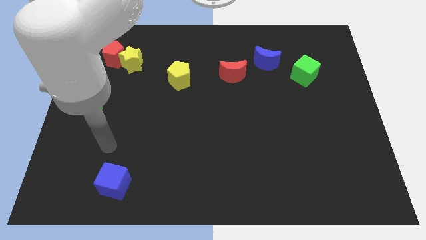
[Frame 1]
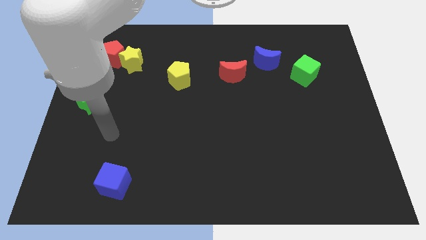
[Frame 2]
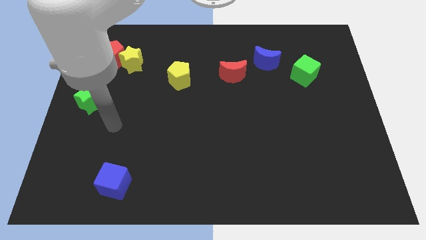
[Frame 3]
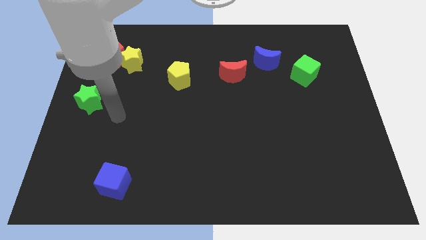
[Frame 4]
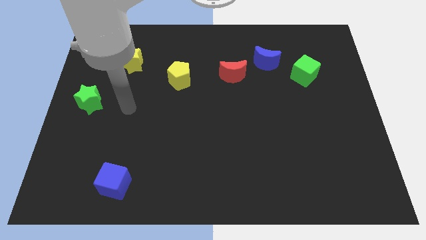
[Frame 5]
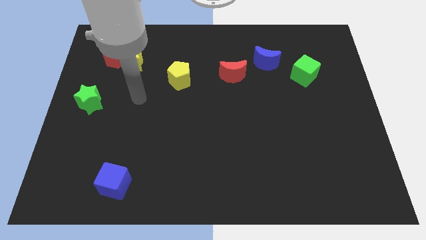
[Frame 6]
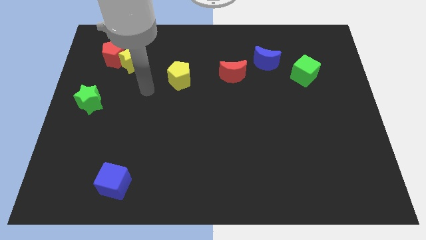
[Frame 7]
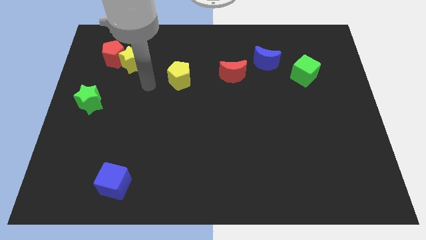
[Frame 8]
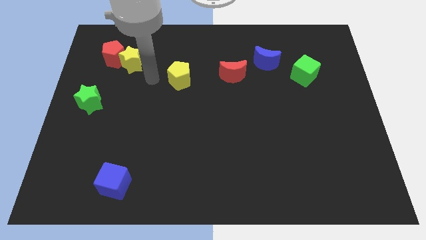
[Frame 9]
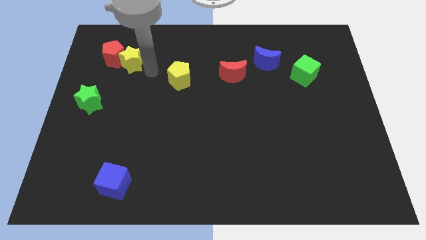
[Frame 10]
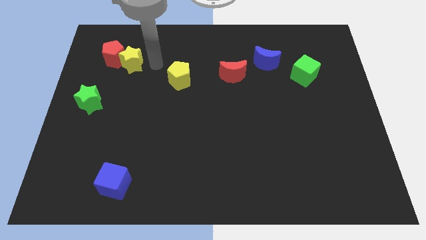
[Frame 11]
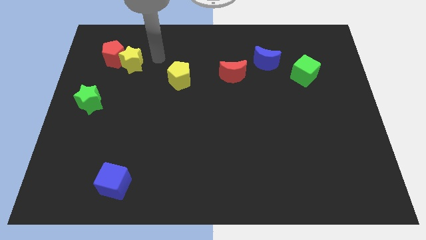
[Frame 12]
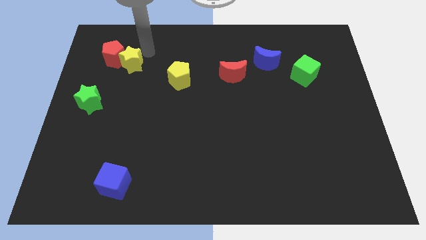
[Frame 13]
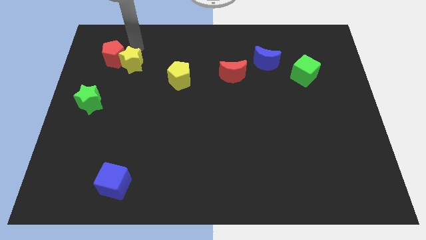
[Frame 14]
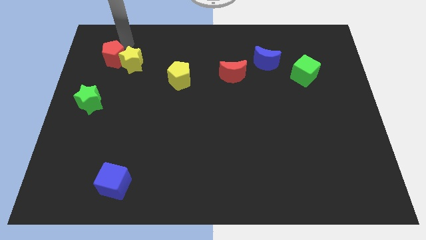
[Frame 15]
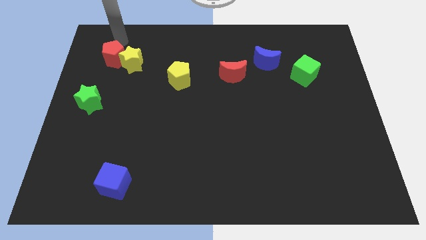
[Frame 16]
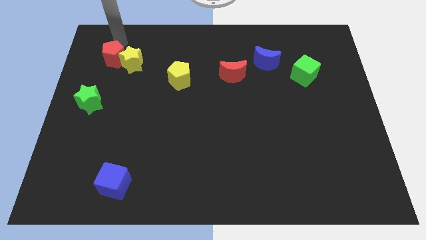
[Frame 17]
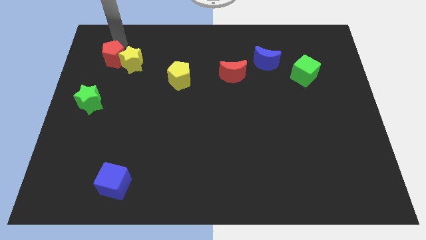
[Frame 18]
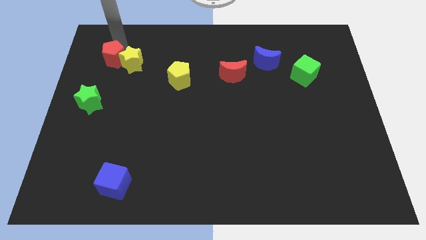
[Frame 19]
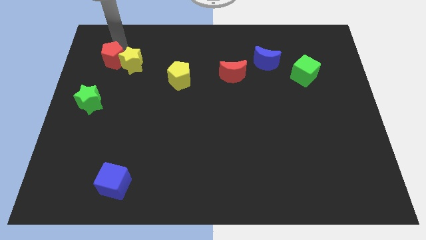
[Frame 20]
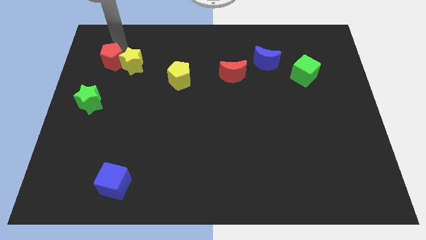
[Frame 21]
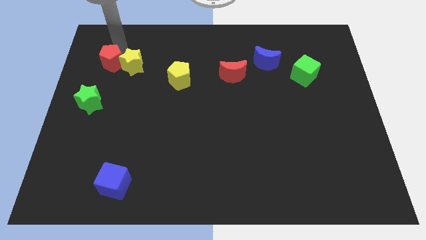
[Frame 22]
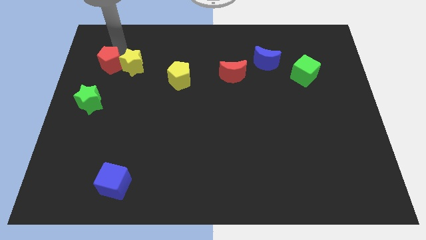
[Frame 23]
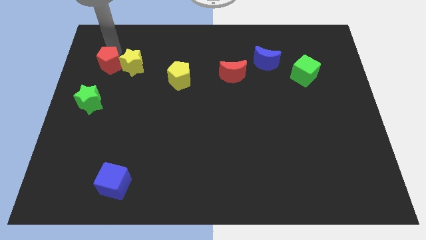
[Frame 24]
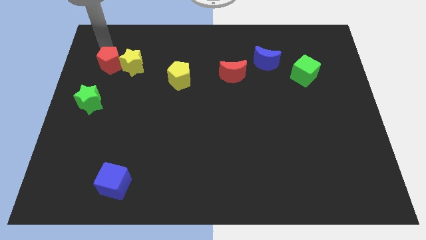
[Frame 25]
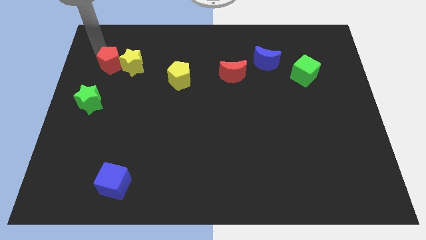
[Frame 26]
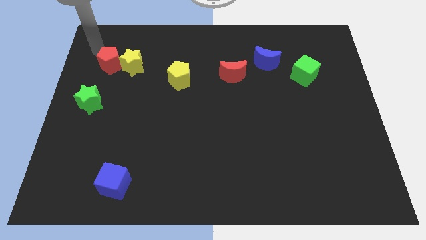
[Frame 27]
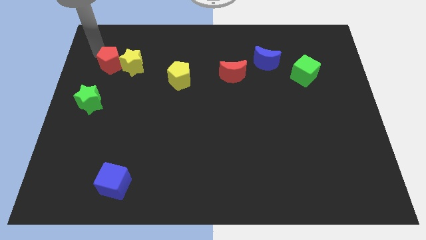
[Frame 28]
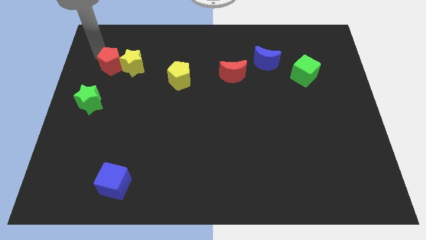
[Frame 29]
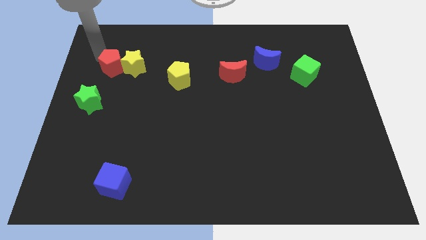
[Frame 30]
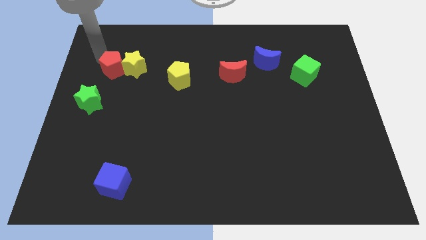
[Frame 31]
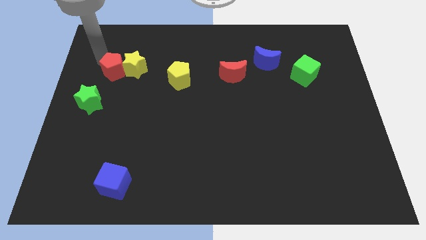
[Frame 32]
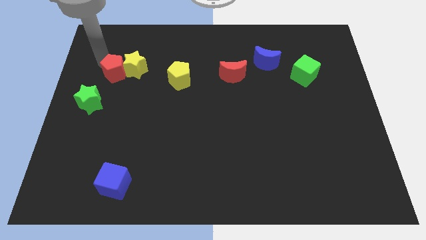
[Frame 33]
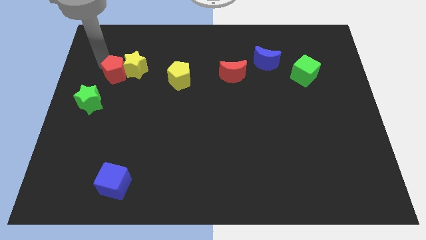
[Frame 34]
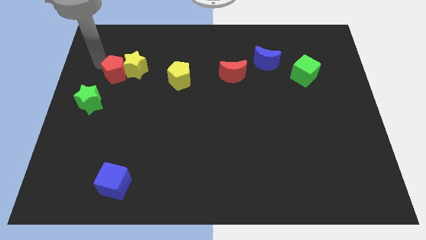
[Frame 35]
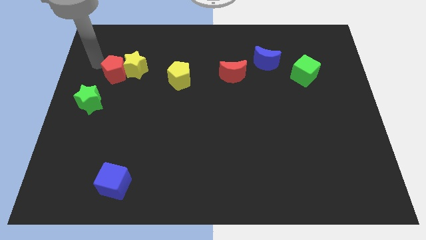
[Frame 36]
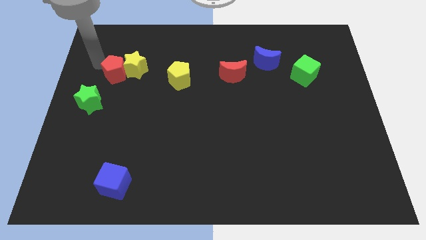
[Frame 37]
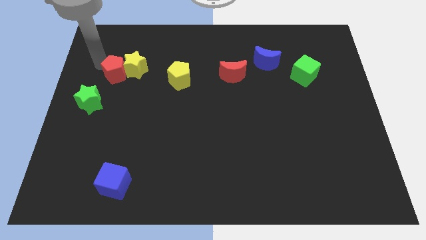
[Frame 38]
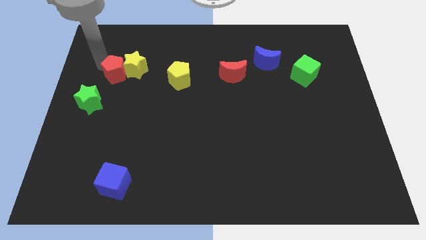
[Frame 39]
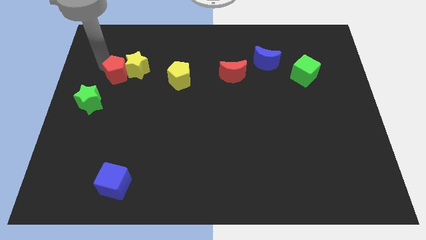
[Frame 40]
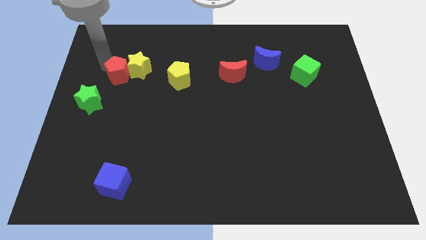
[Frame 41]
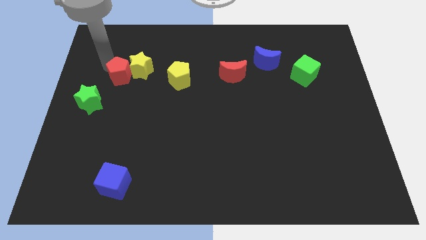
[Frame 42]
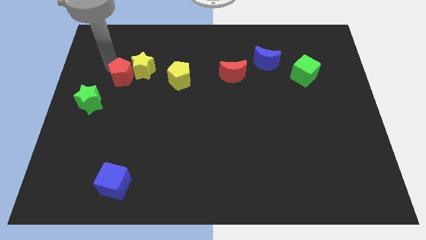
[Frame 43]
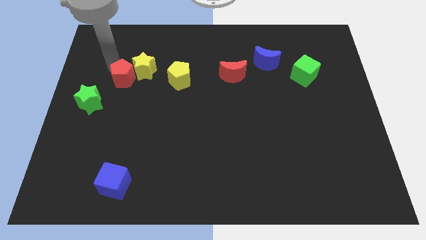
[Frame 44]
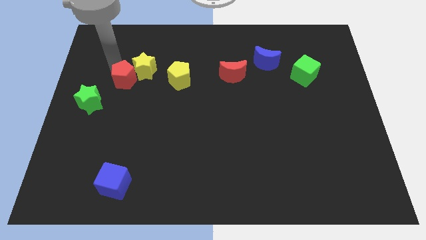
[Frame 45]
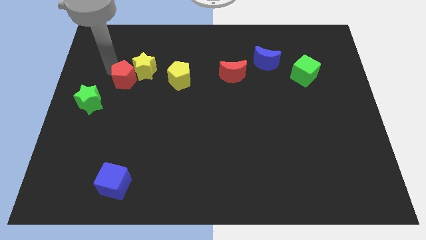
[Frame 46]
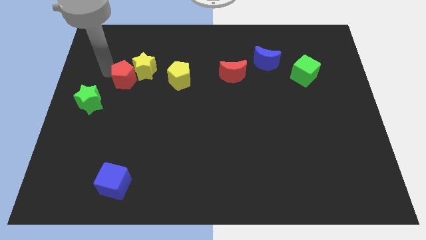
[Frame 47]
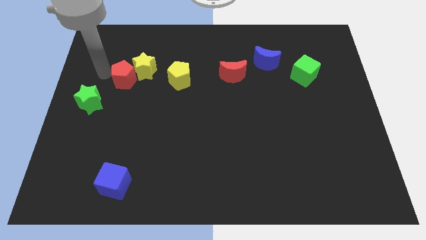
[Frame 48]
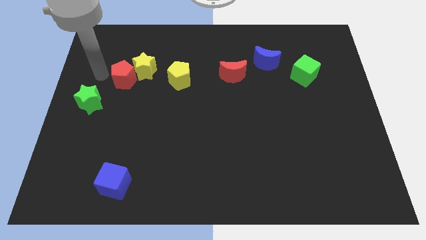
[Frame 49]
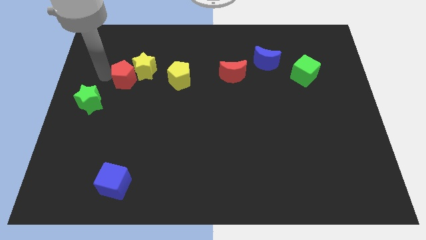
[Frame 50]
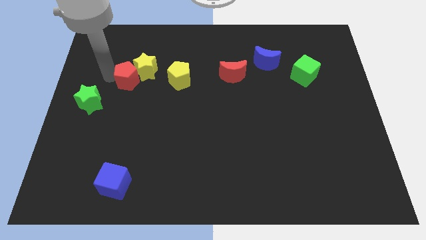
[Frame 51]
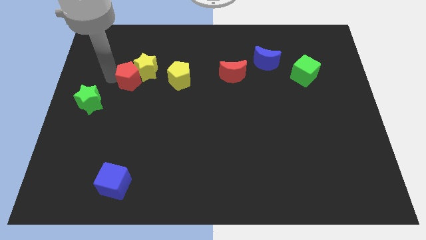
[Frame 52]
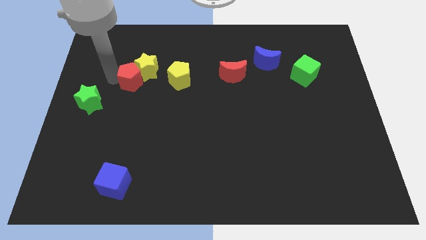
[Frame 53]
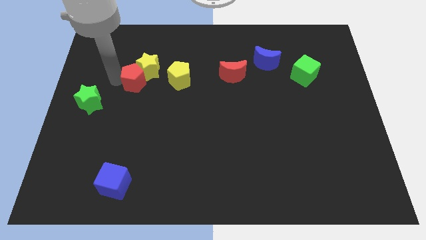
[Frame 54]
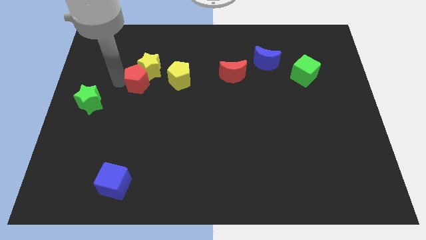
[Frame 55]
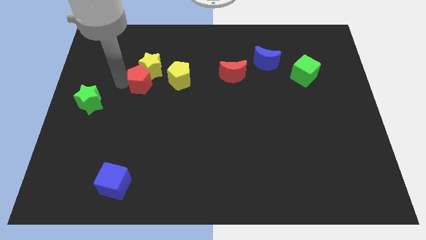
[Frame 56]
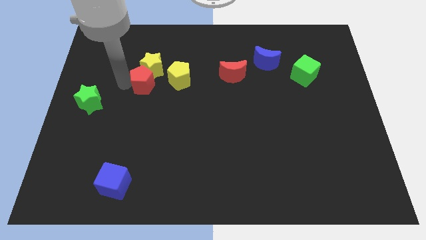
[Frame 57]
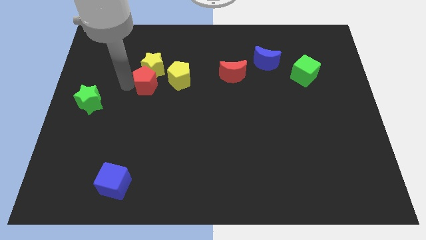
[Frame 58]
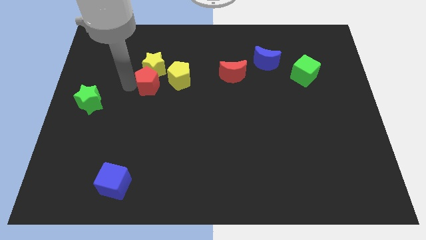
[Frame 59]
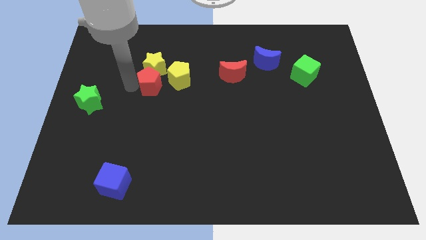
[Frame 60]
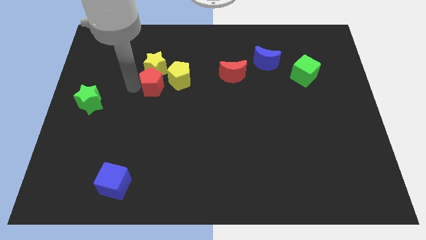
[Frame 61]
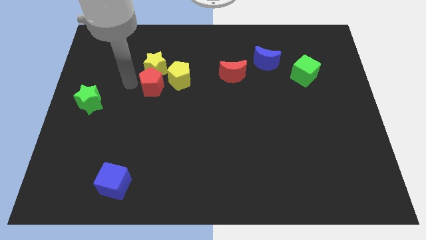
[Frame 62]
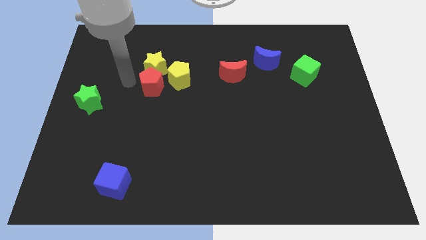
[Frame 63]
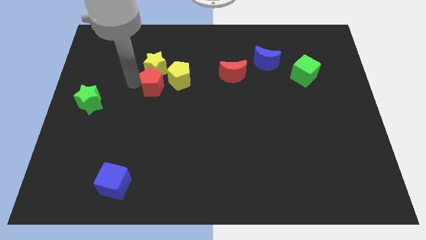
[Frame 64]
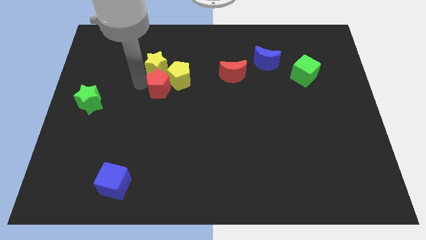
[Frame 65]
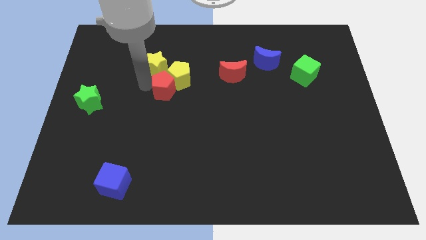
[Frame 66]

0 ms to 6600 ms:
slide the red pentagon to the middle of the board

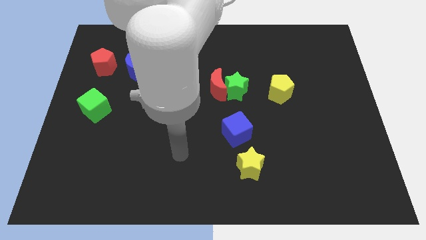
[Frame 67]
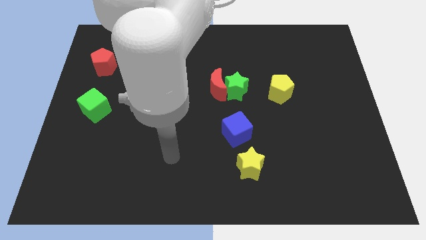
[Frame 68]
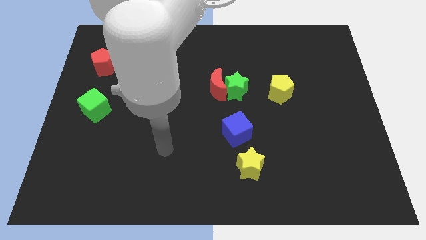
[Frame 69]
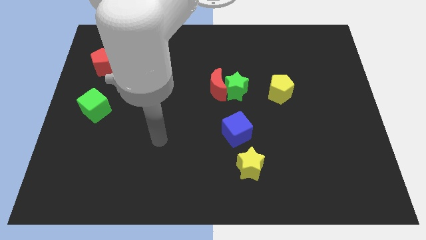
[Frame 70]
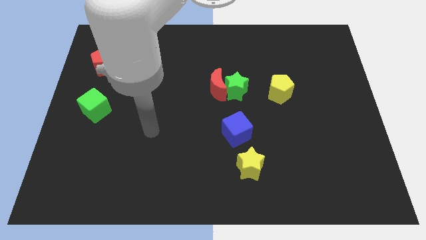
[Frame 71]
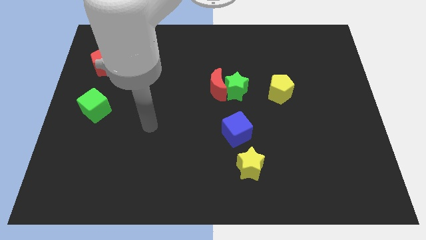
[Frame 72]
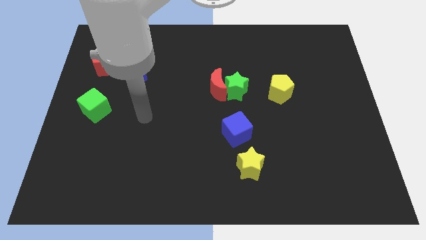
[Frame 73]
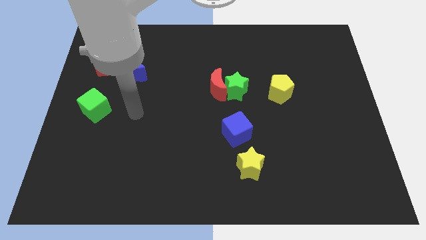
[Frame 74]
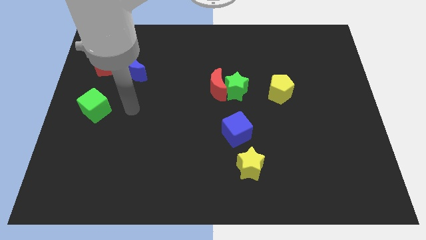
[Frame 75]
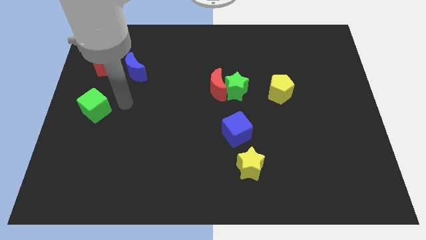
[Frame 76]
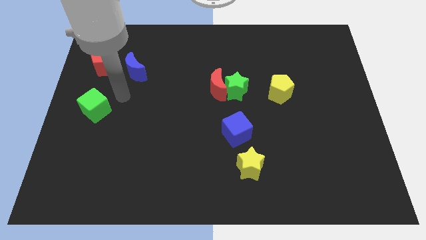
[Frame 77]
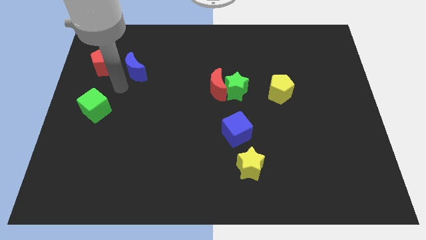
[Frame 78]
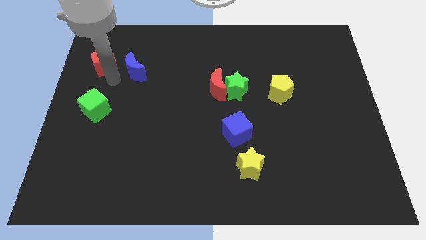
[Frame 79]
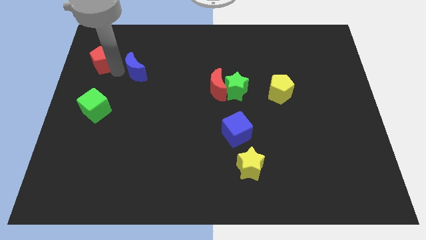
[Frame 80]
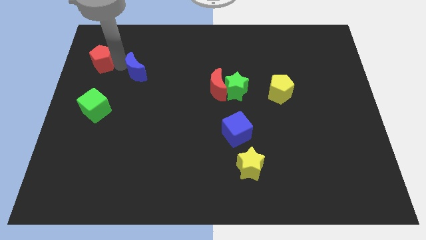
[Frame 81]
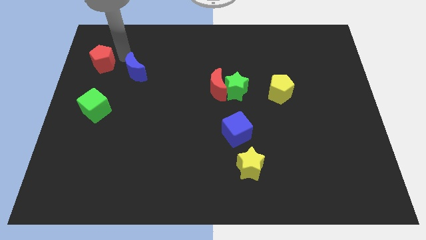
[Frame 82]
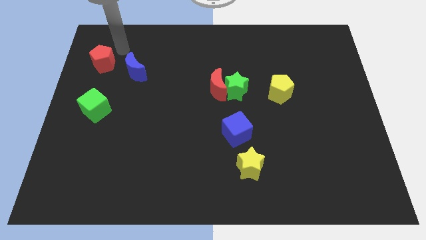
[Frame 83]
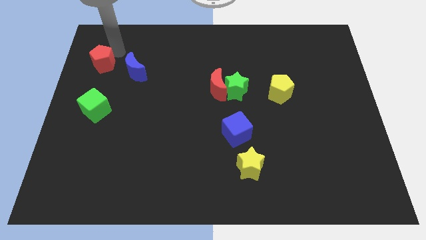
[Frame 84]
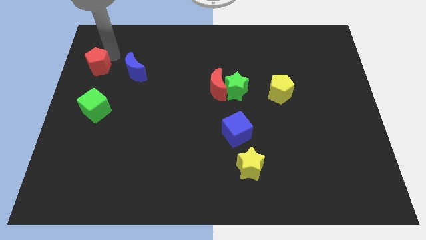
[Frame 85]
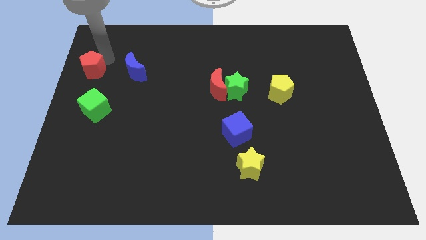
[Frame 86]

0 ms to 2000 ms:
slide the red pentagon to the left side of the board
